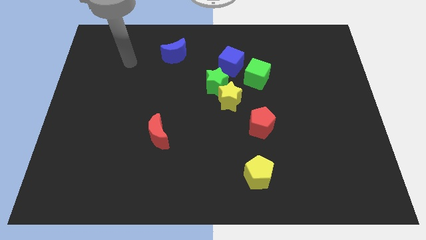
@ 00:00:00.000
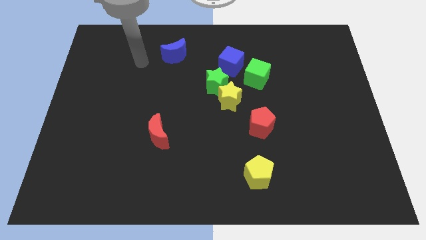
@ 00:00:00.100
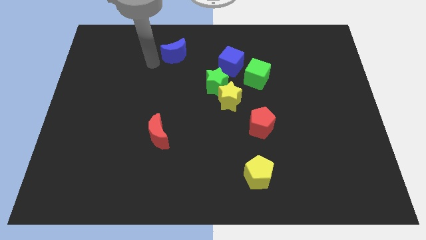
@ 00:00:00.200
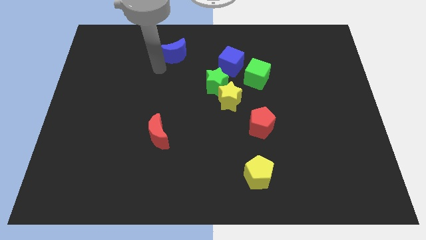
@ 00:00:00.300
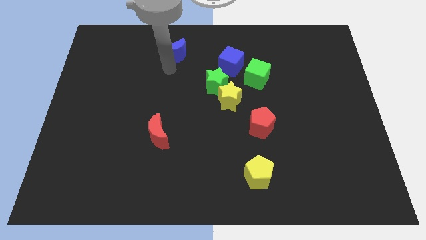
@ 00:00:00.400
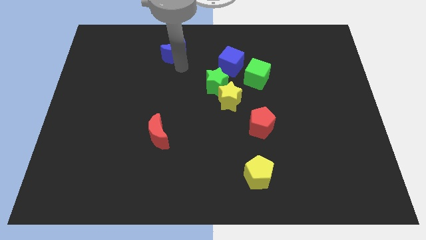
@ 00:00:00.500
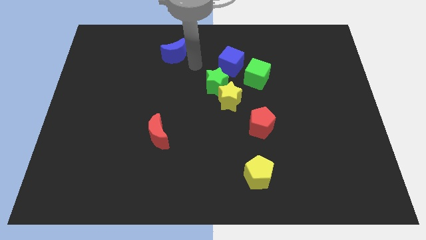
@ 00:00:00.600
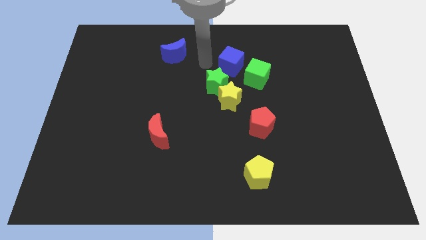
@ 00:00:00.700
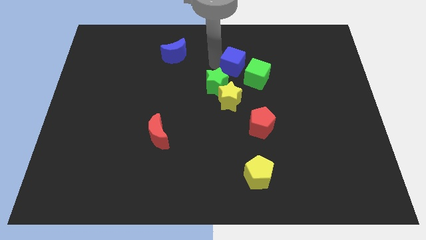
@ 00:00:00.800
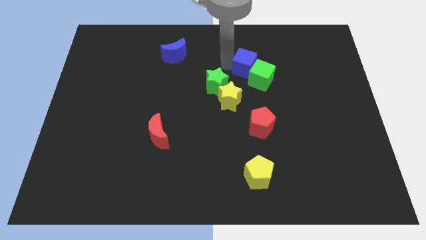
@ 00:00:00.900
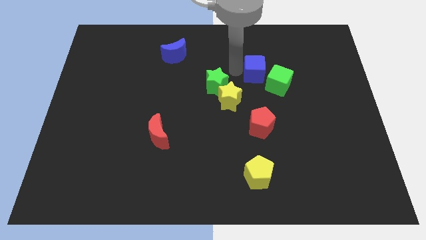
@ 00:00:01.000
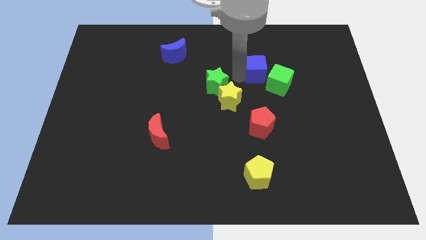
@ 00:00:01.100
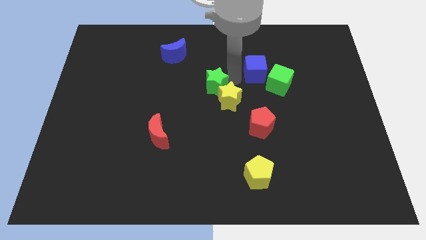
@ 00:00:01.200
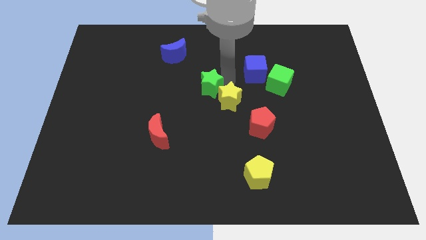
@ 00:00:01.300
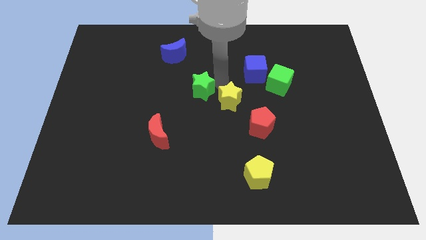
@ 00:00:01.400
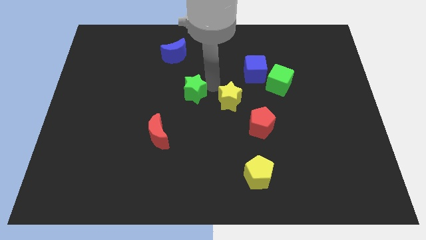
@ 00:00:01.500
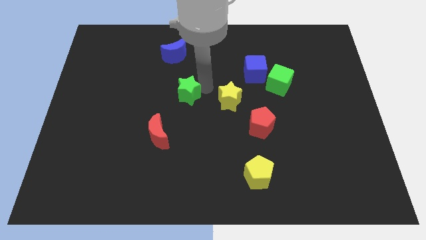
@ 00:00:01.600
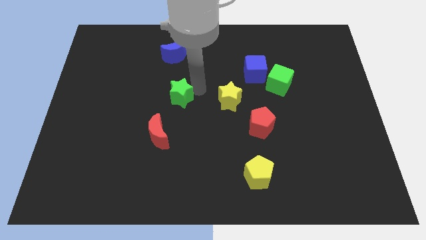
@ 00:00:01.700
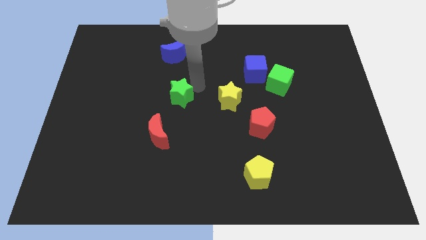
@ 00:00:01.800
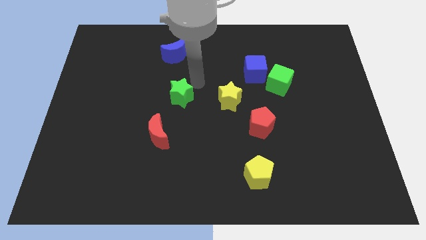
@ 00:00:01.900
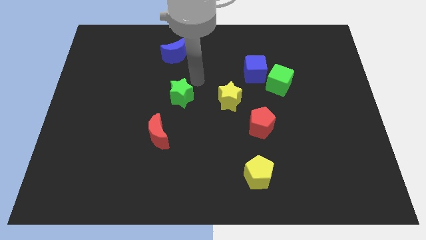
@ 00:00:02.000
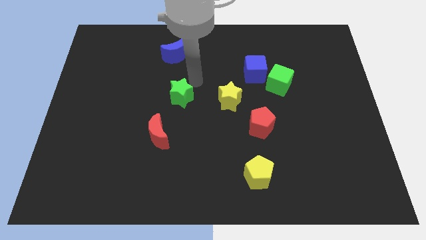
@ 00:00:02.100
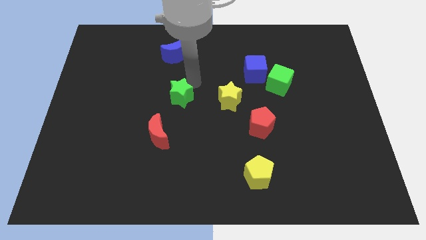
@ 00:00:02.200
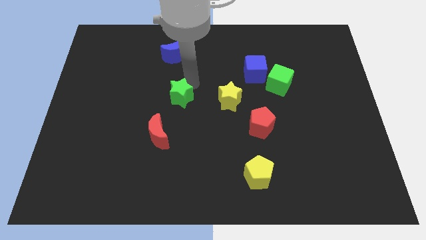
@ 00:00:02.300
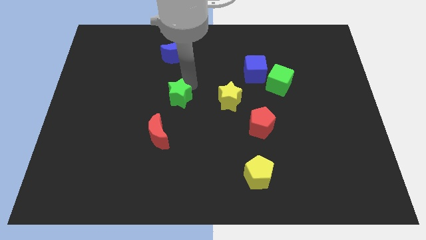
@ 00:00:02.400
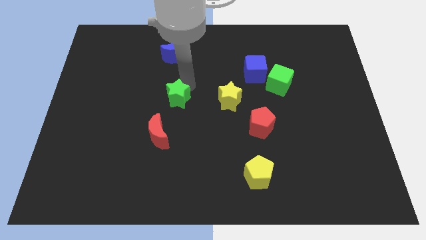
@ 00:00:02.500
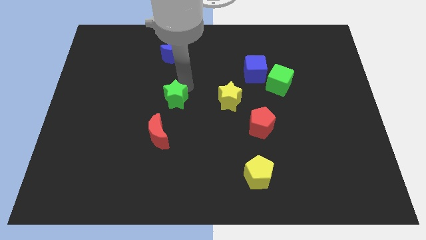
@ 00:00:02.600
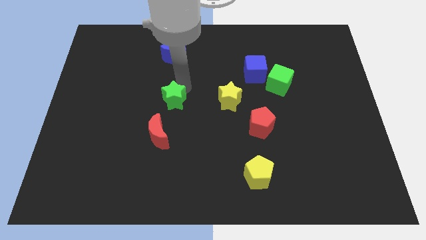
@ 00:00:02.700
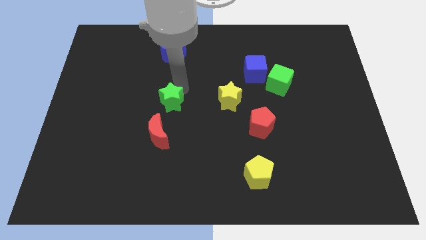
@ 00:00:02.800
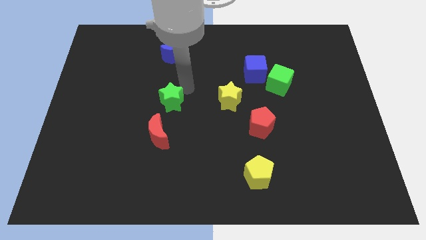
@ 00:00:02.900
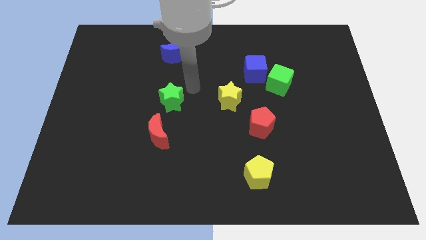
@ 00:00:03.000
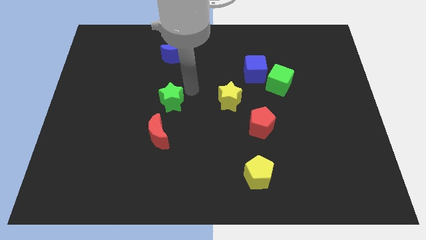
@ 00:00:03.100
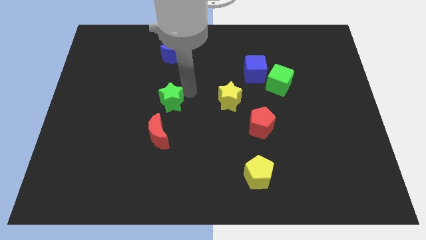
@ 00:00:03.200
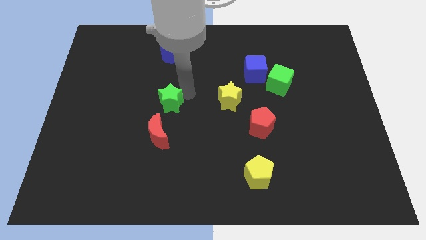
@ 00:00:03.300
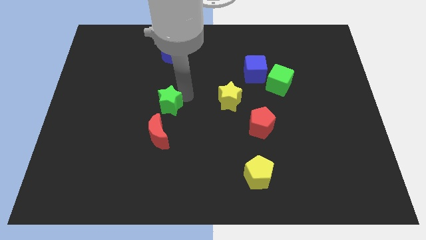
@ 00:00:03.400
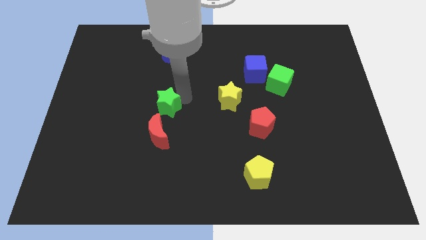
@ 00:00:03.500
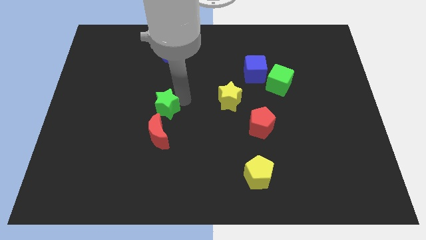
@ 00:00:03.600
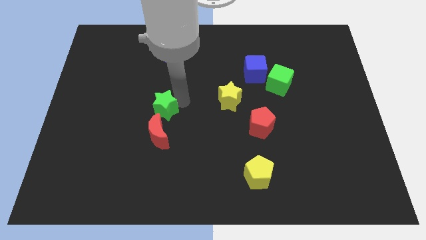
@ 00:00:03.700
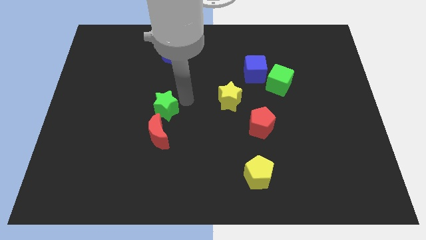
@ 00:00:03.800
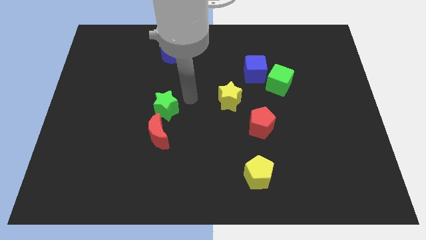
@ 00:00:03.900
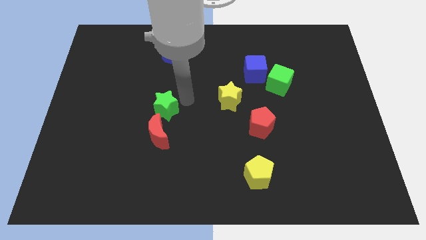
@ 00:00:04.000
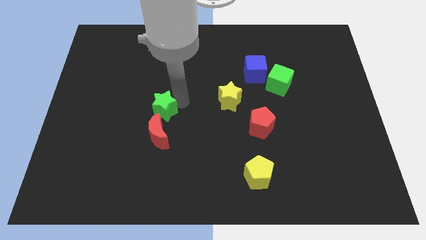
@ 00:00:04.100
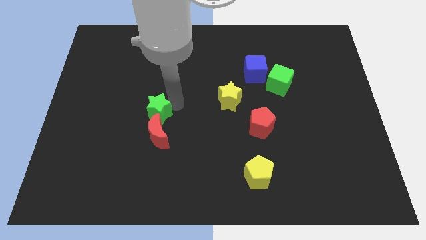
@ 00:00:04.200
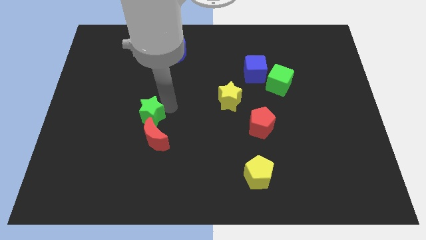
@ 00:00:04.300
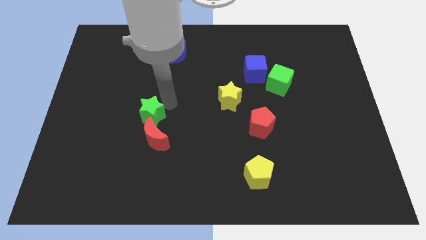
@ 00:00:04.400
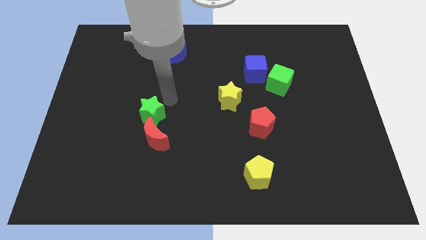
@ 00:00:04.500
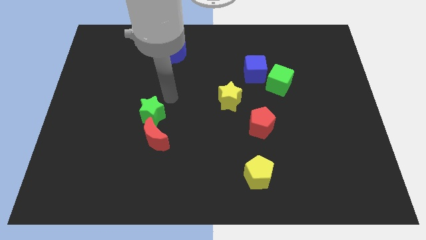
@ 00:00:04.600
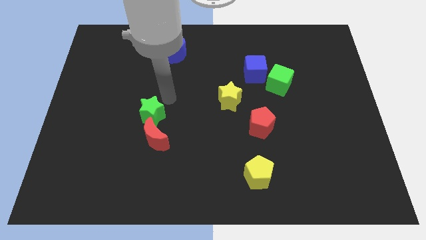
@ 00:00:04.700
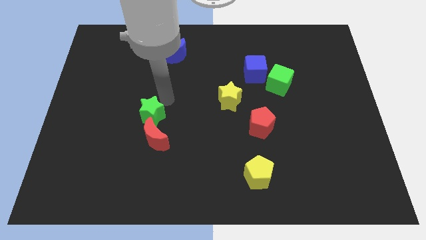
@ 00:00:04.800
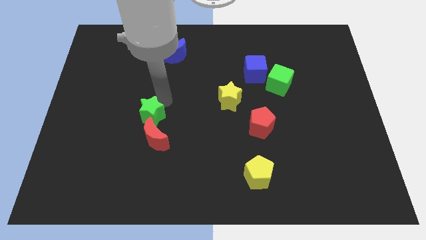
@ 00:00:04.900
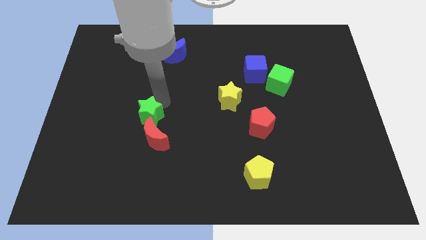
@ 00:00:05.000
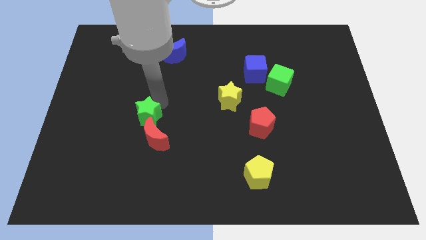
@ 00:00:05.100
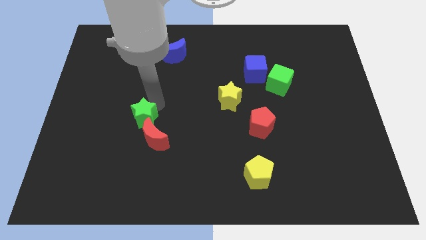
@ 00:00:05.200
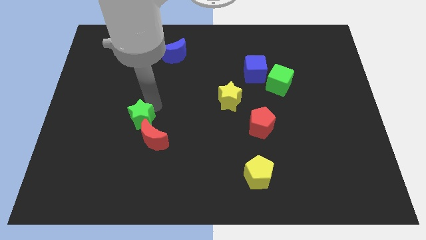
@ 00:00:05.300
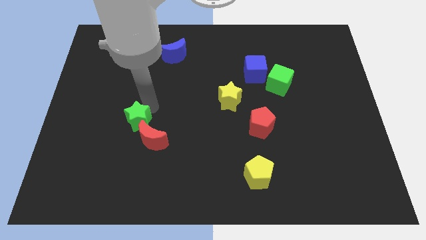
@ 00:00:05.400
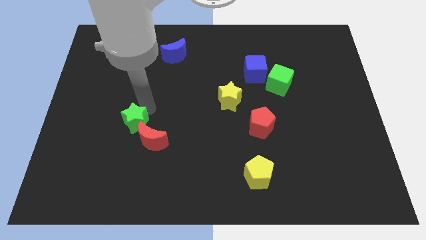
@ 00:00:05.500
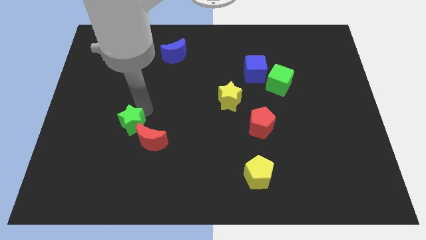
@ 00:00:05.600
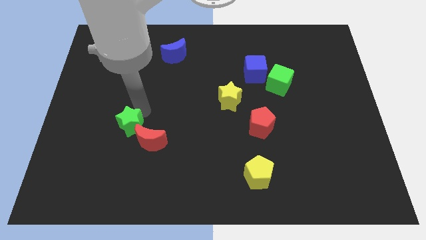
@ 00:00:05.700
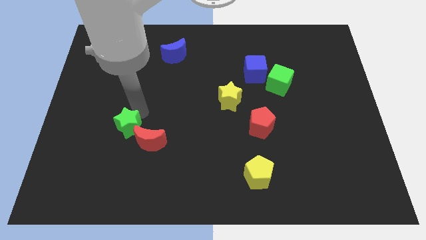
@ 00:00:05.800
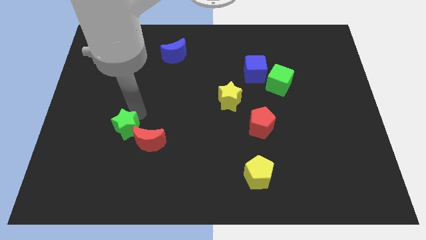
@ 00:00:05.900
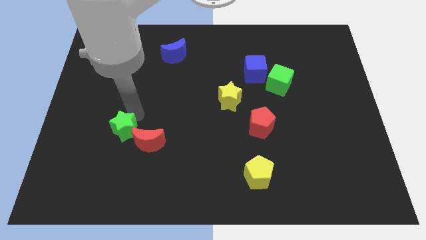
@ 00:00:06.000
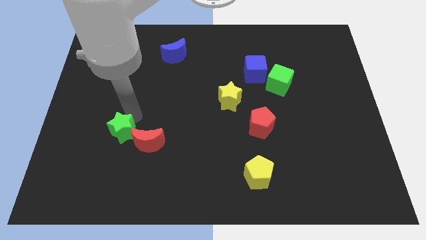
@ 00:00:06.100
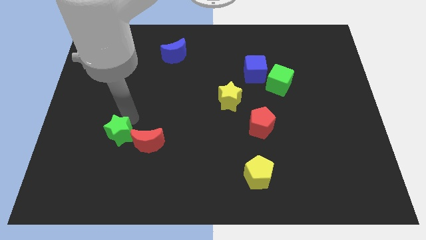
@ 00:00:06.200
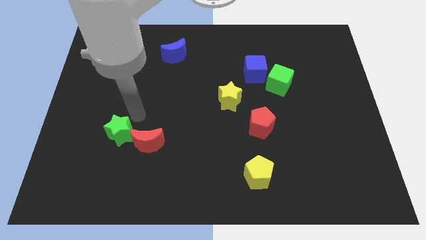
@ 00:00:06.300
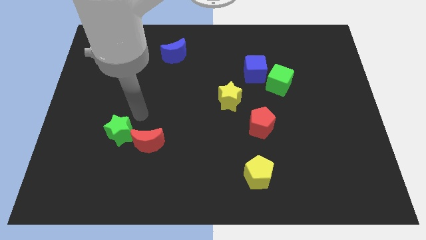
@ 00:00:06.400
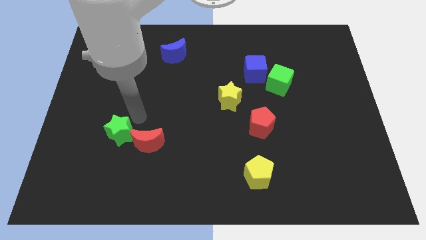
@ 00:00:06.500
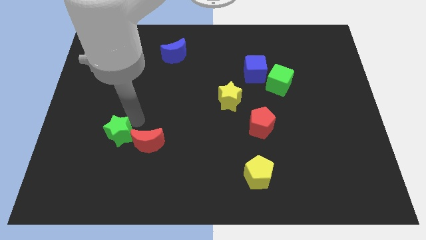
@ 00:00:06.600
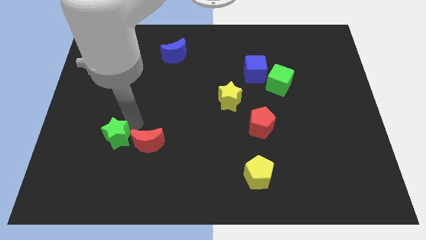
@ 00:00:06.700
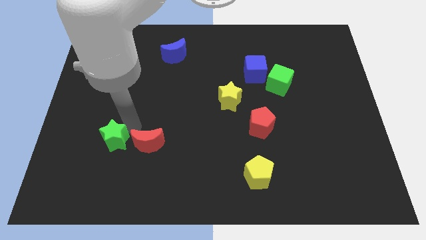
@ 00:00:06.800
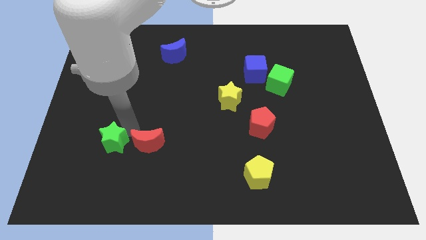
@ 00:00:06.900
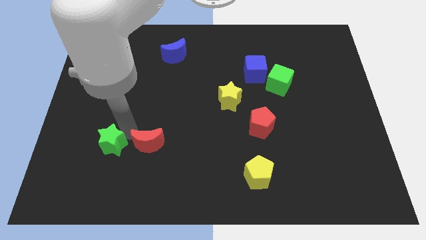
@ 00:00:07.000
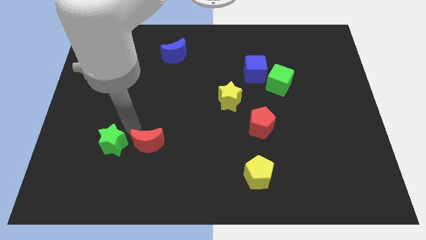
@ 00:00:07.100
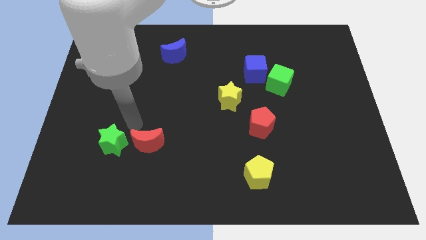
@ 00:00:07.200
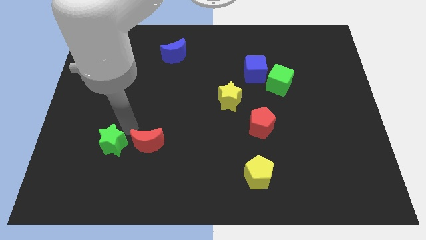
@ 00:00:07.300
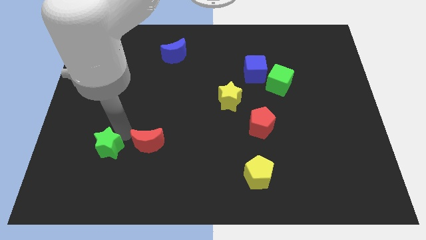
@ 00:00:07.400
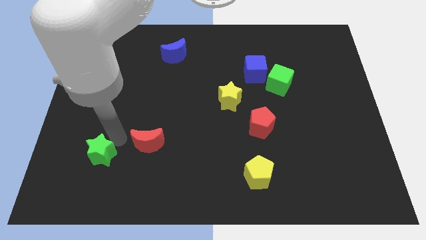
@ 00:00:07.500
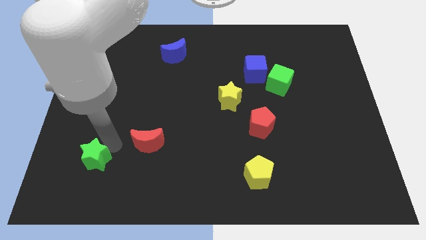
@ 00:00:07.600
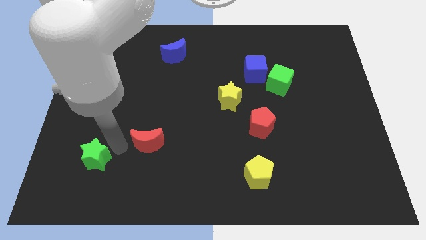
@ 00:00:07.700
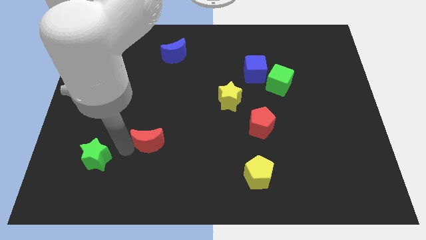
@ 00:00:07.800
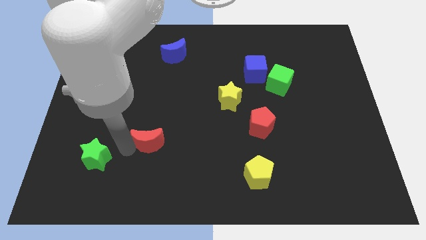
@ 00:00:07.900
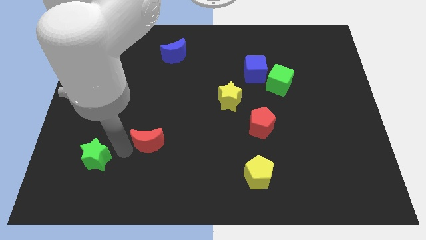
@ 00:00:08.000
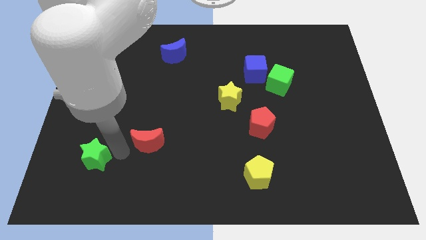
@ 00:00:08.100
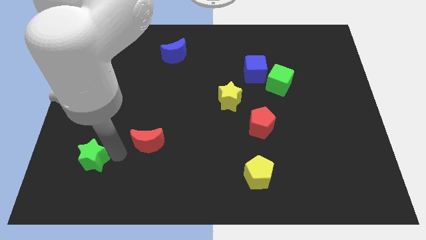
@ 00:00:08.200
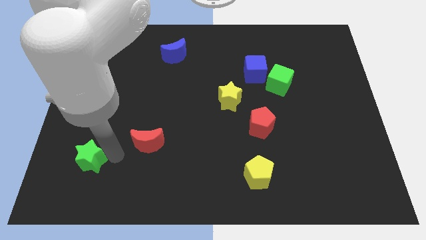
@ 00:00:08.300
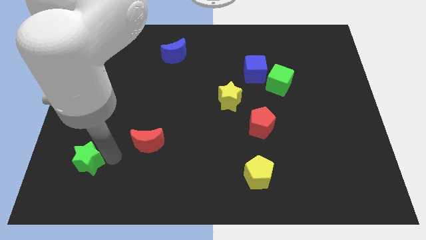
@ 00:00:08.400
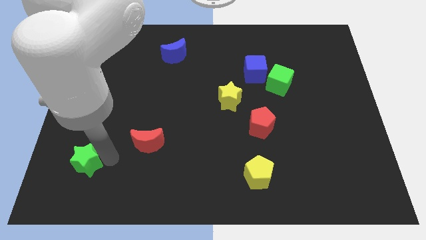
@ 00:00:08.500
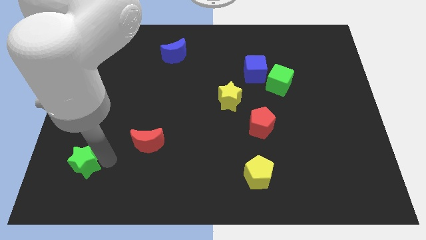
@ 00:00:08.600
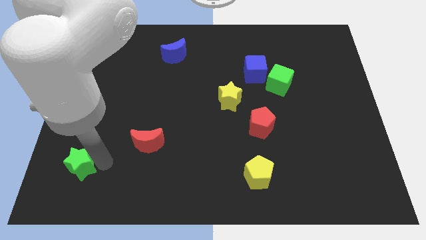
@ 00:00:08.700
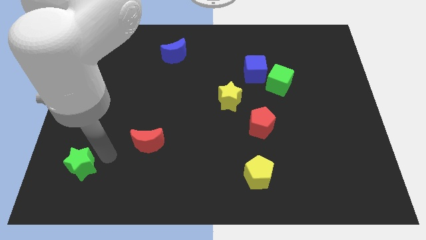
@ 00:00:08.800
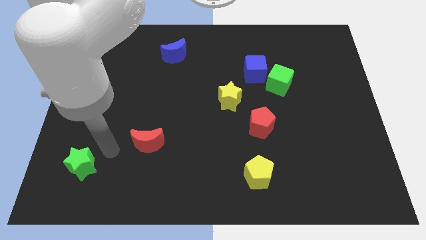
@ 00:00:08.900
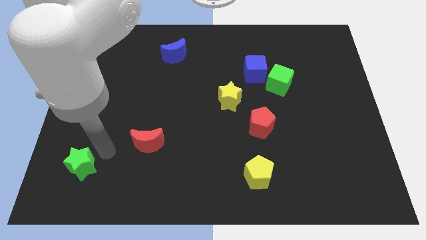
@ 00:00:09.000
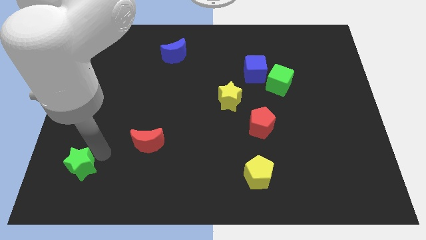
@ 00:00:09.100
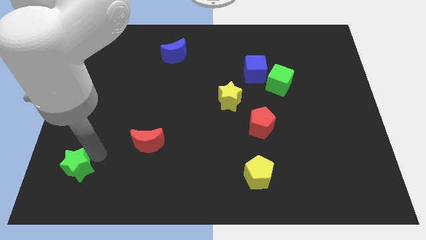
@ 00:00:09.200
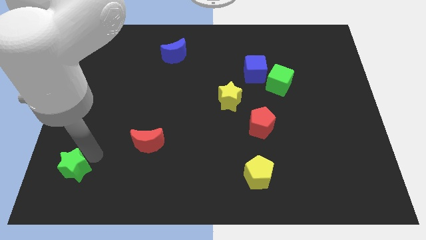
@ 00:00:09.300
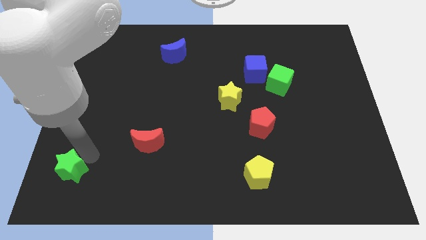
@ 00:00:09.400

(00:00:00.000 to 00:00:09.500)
slide the green star to the lower left corner
